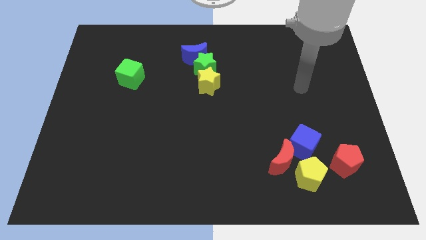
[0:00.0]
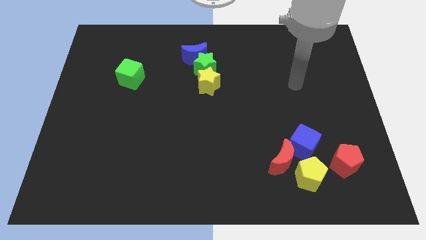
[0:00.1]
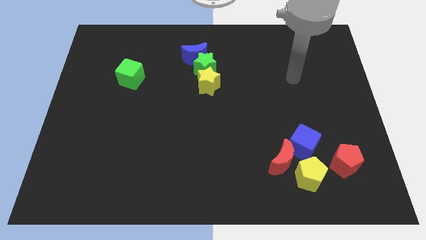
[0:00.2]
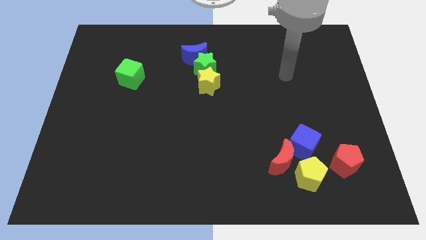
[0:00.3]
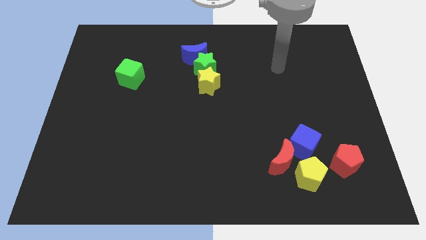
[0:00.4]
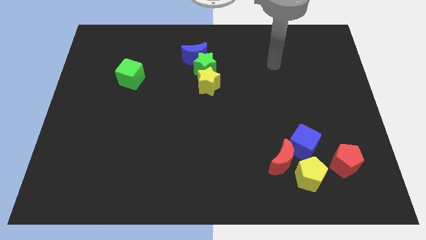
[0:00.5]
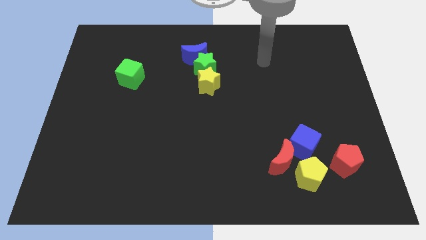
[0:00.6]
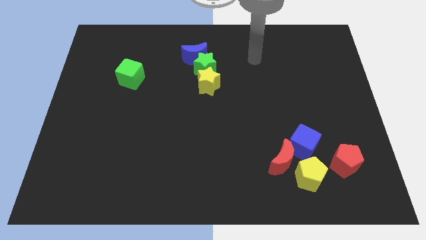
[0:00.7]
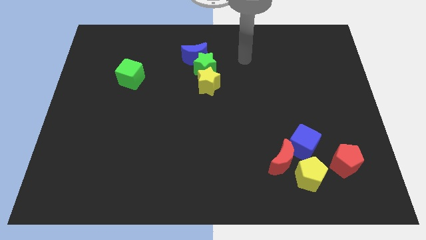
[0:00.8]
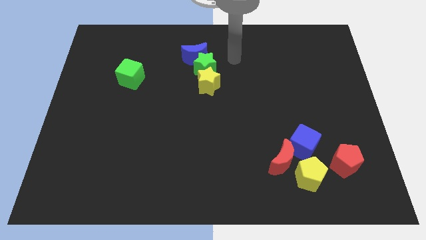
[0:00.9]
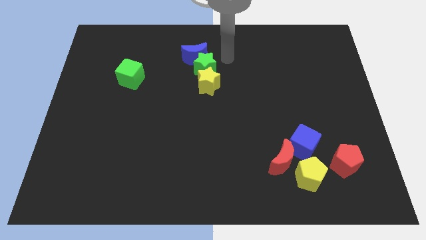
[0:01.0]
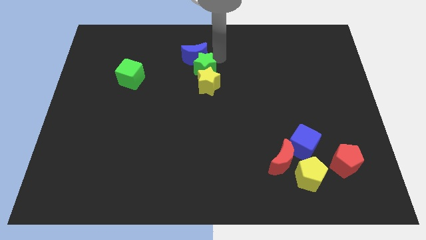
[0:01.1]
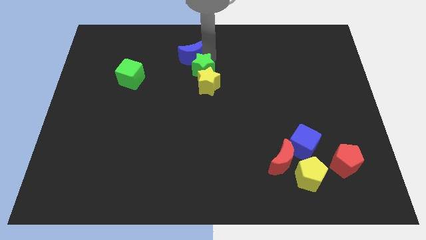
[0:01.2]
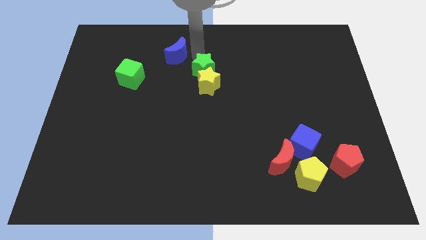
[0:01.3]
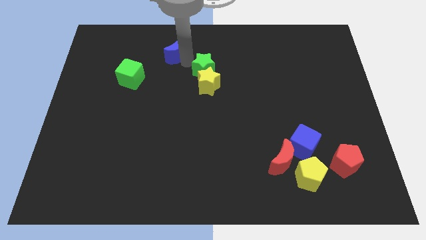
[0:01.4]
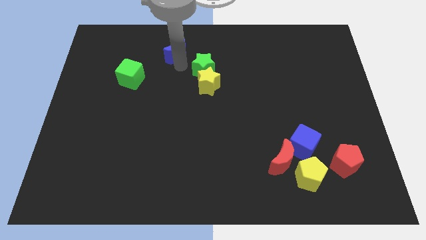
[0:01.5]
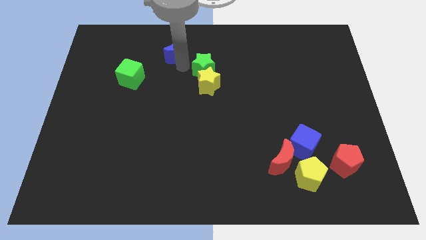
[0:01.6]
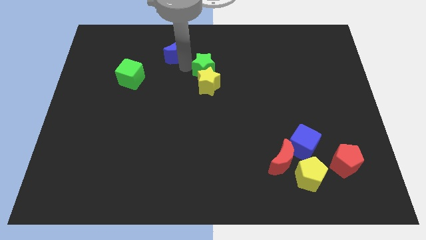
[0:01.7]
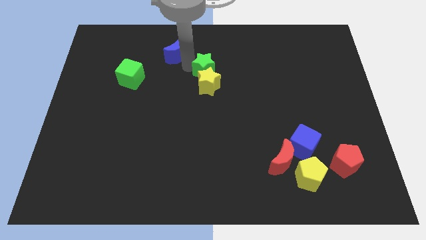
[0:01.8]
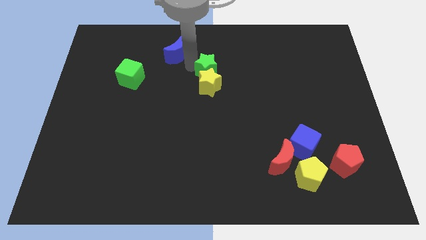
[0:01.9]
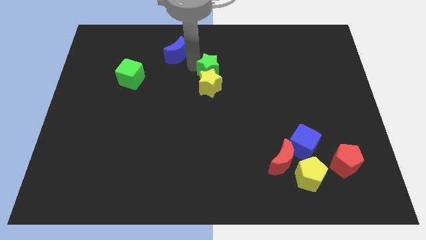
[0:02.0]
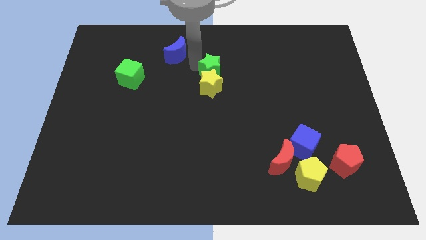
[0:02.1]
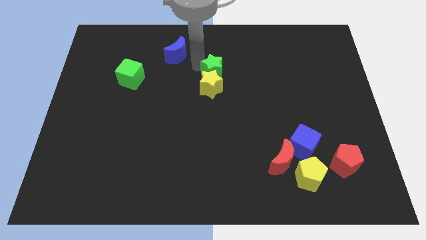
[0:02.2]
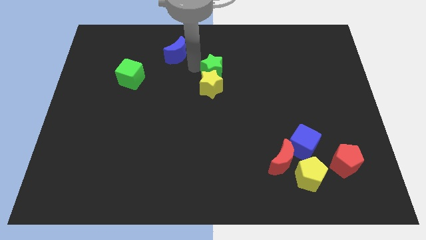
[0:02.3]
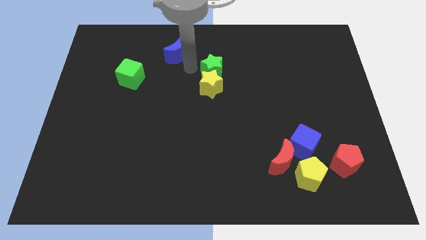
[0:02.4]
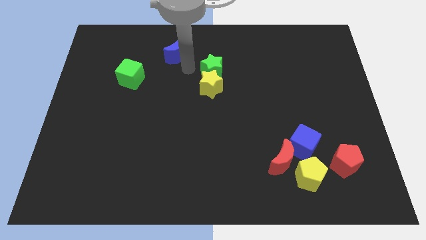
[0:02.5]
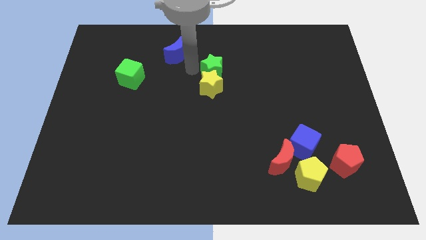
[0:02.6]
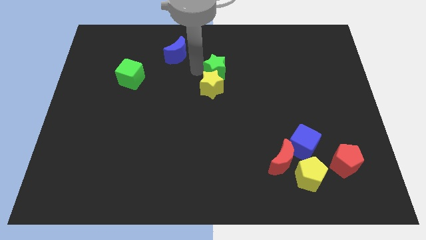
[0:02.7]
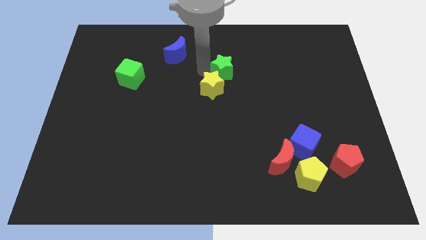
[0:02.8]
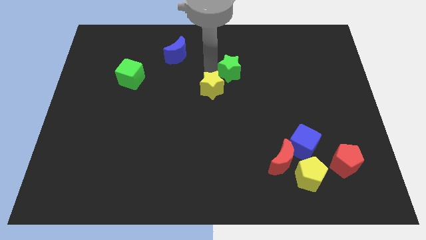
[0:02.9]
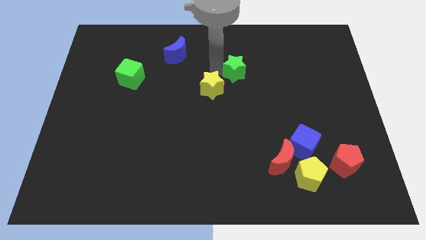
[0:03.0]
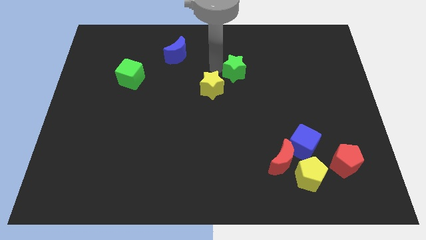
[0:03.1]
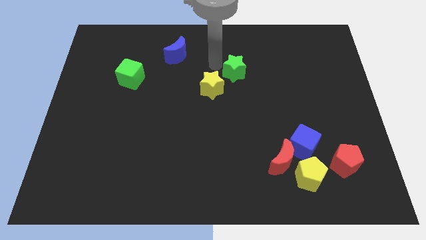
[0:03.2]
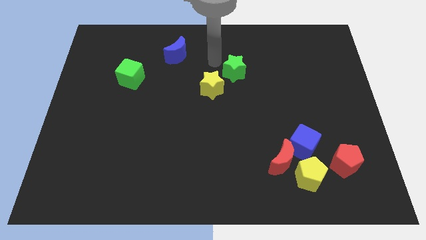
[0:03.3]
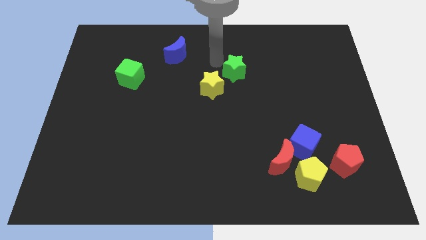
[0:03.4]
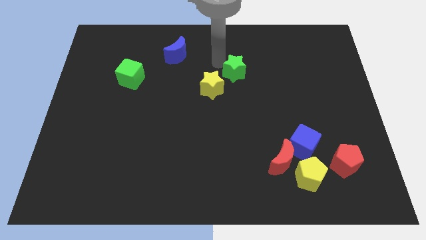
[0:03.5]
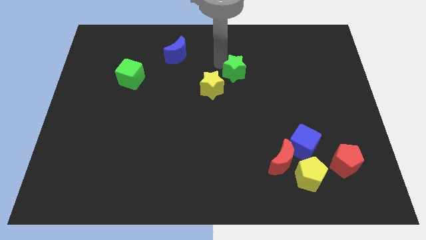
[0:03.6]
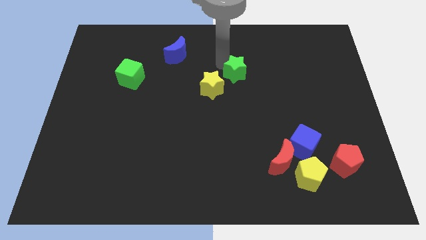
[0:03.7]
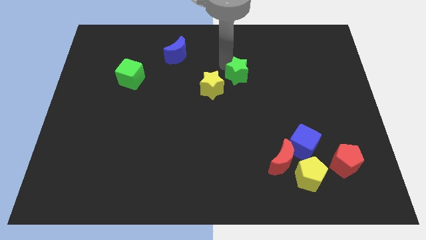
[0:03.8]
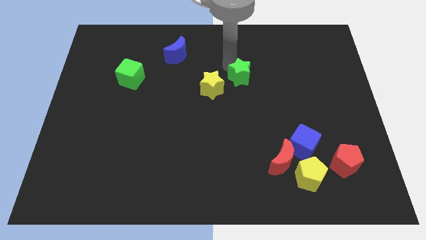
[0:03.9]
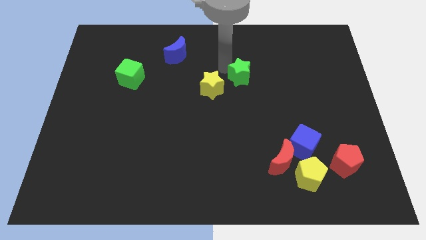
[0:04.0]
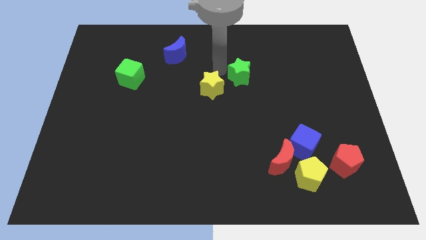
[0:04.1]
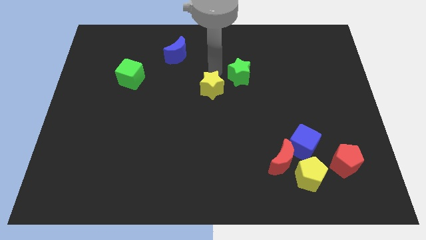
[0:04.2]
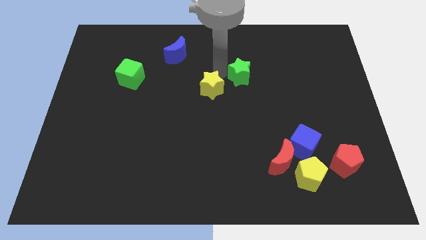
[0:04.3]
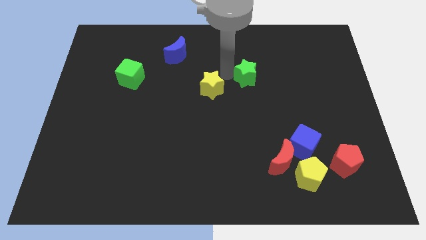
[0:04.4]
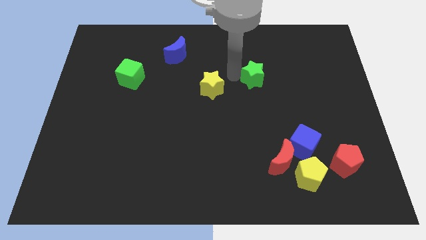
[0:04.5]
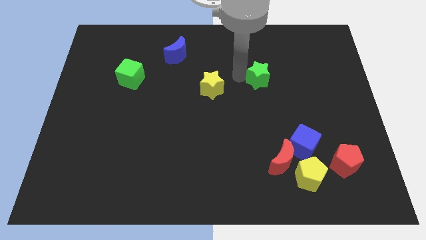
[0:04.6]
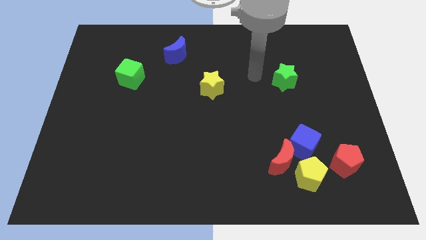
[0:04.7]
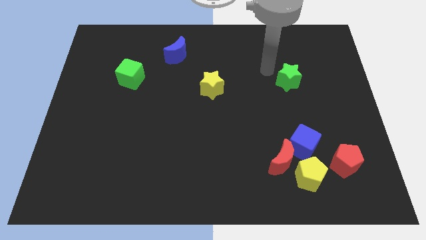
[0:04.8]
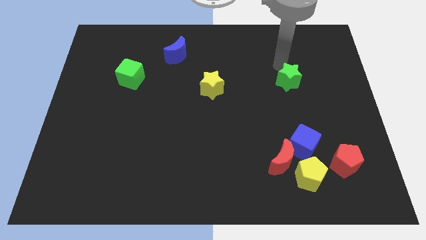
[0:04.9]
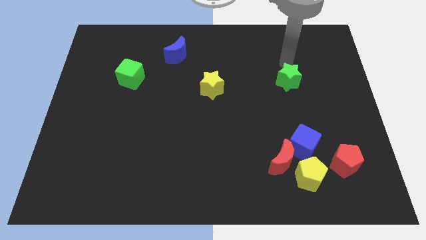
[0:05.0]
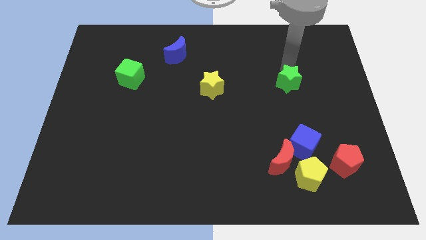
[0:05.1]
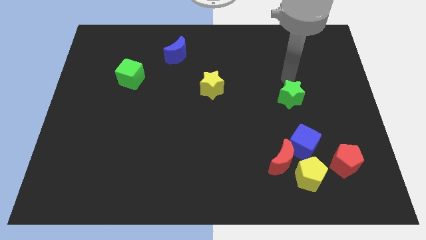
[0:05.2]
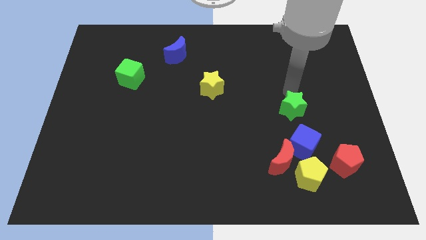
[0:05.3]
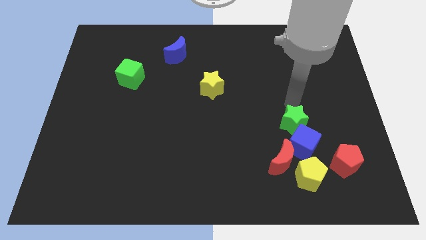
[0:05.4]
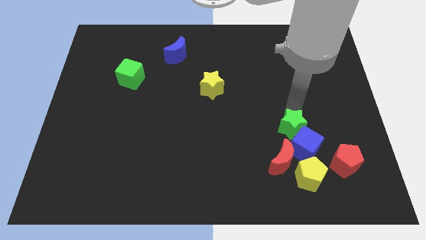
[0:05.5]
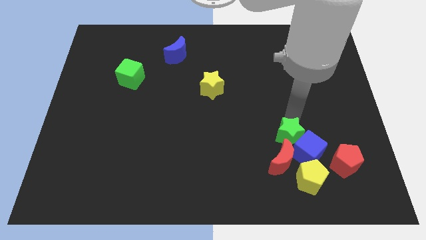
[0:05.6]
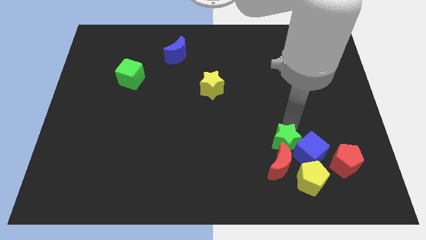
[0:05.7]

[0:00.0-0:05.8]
push the green star to the left of the red pentagon

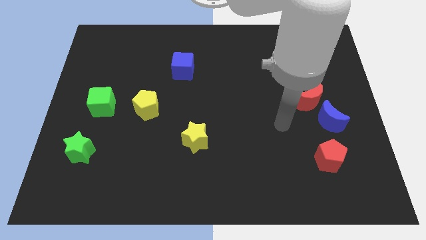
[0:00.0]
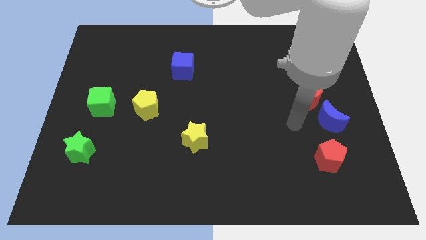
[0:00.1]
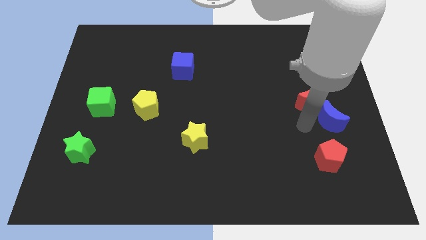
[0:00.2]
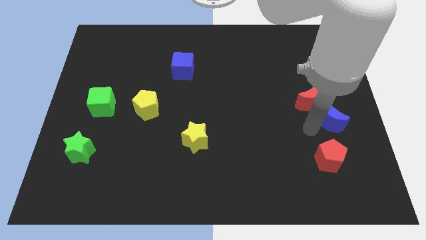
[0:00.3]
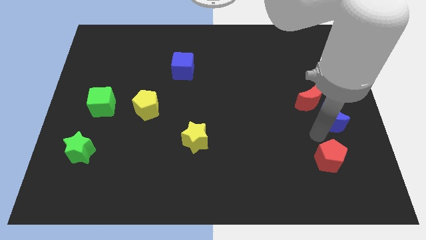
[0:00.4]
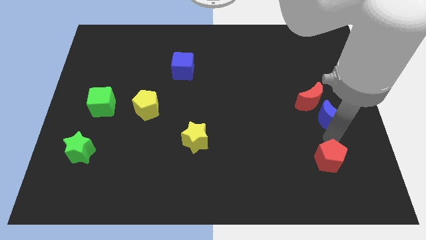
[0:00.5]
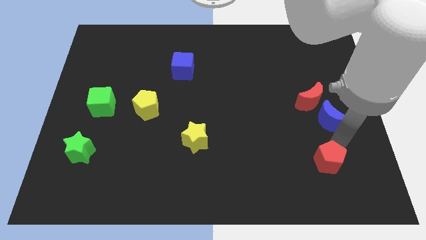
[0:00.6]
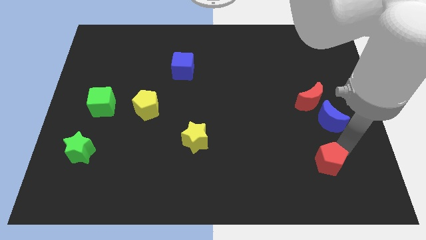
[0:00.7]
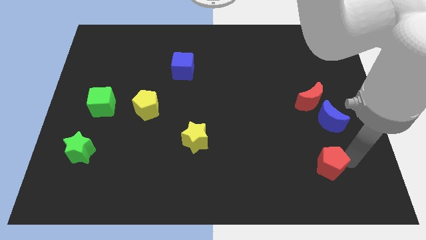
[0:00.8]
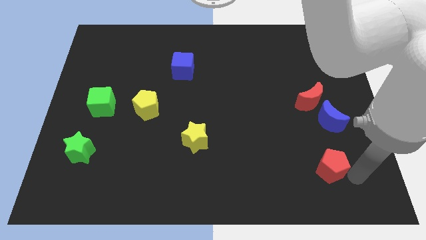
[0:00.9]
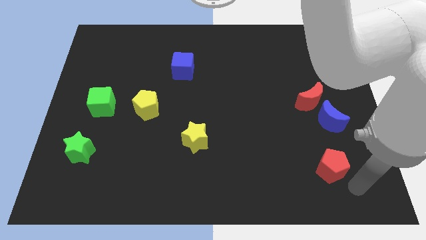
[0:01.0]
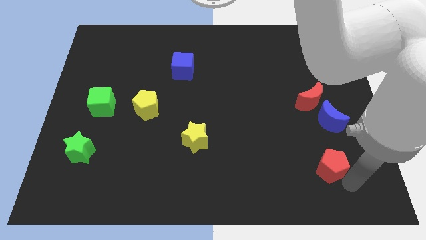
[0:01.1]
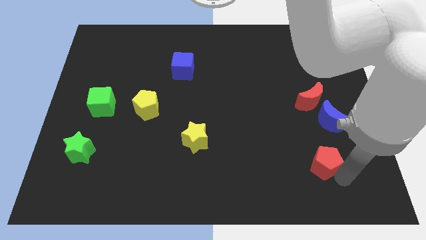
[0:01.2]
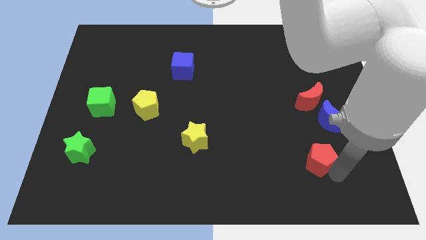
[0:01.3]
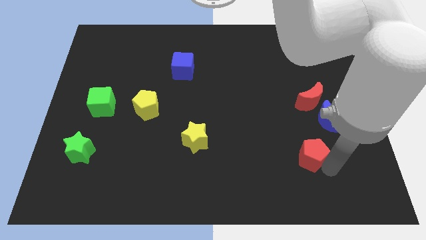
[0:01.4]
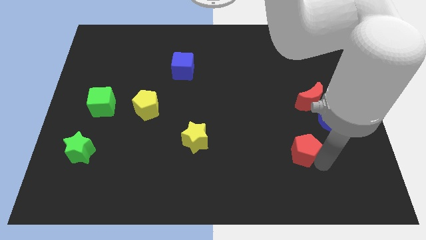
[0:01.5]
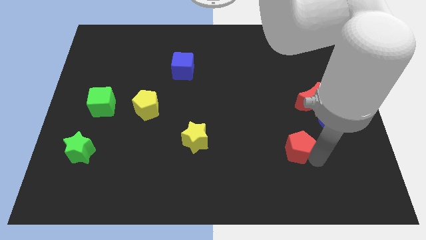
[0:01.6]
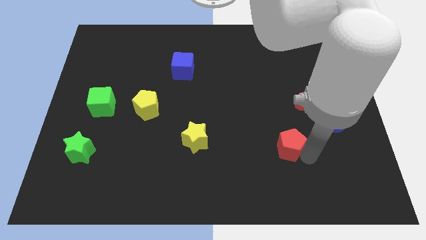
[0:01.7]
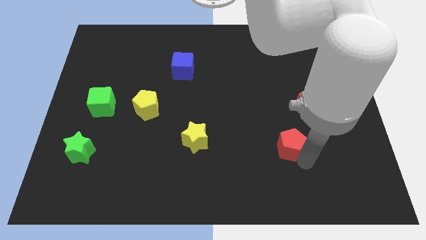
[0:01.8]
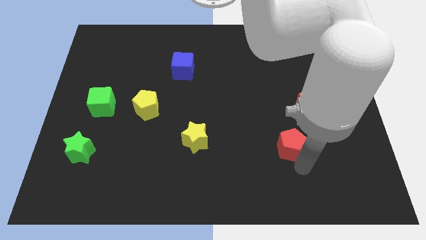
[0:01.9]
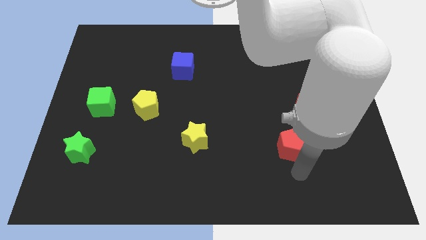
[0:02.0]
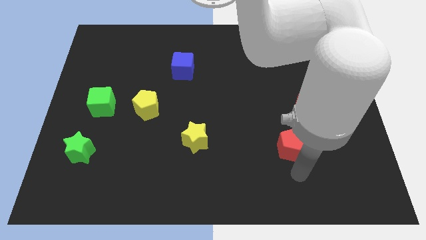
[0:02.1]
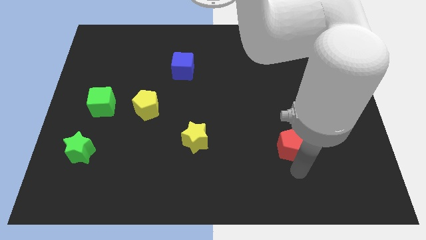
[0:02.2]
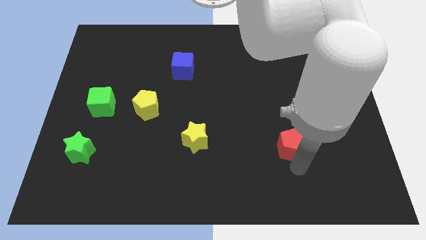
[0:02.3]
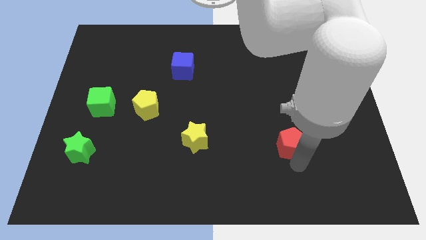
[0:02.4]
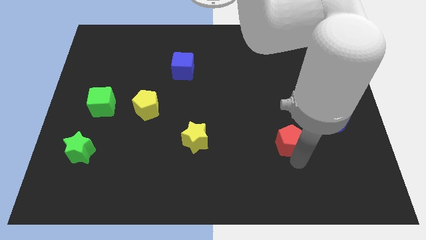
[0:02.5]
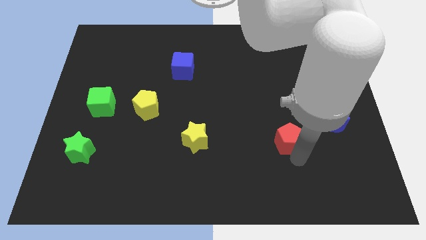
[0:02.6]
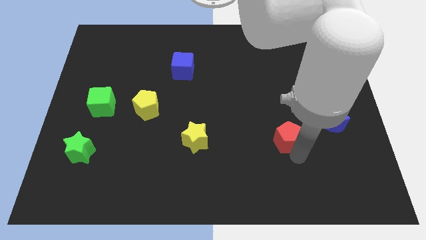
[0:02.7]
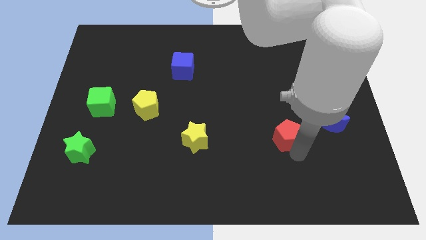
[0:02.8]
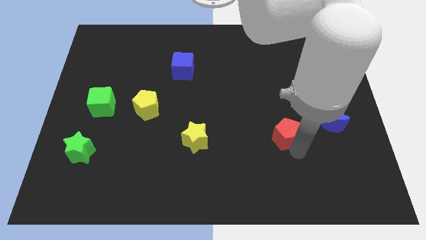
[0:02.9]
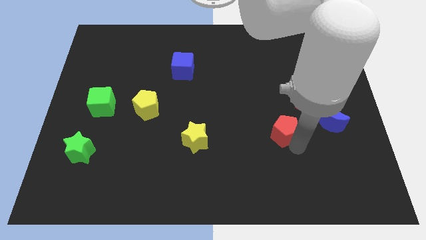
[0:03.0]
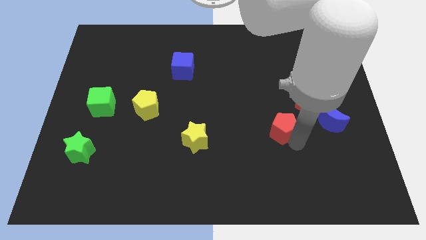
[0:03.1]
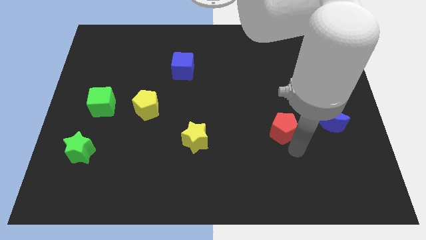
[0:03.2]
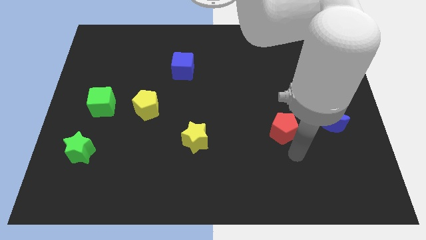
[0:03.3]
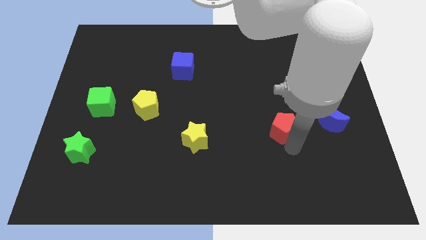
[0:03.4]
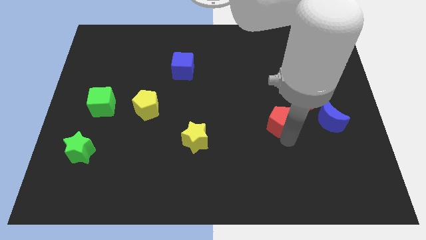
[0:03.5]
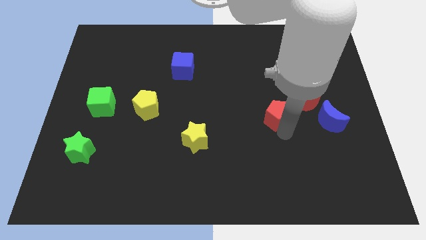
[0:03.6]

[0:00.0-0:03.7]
put the red pentagon just left of the red moon
